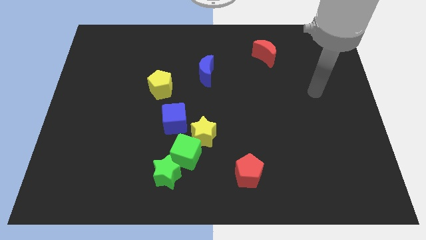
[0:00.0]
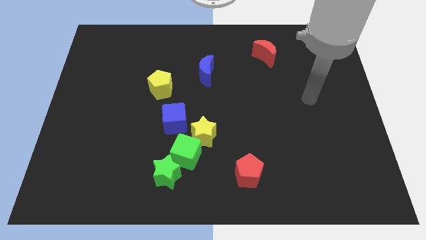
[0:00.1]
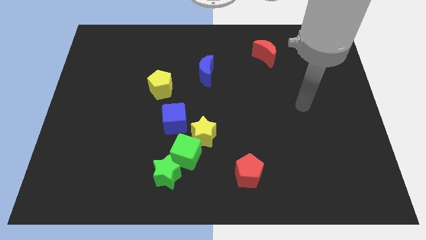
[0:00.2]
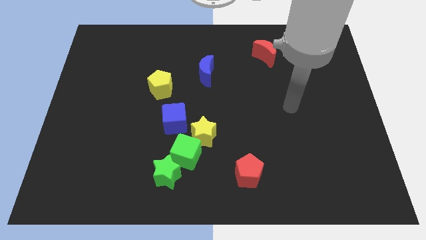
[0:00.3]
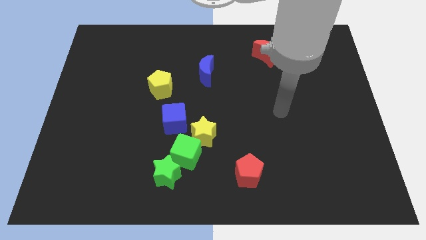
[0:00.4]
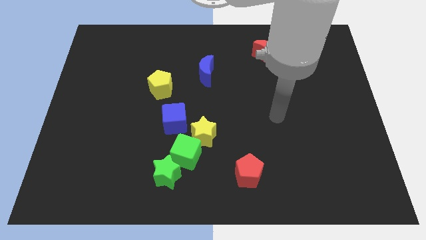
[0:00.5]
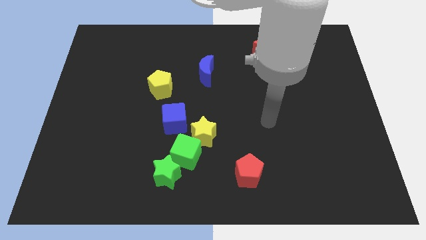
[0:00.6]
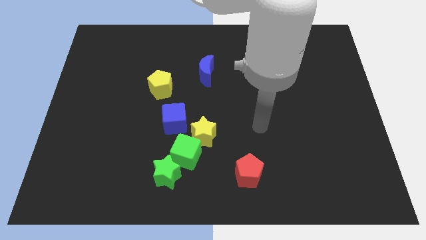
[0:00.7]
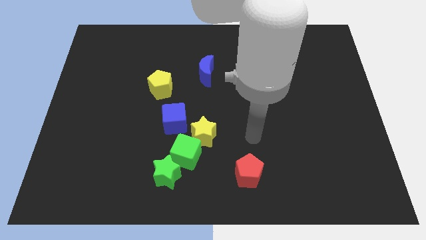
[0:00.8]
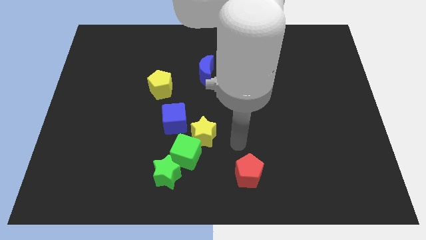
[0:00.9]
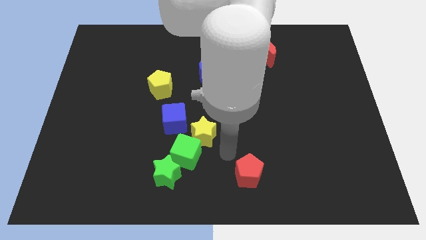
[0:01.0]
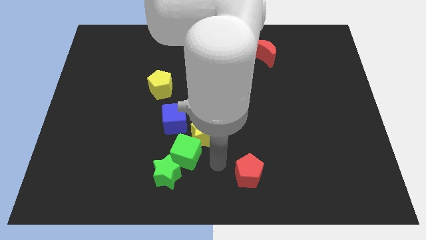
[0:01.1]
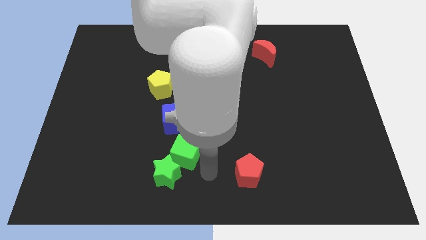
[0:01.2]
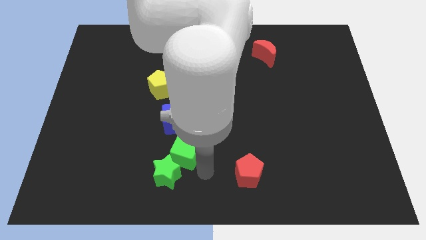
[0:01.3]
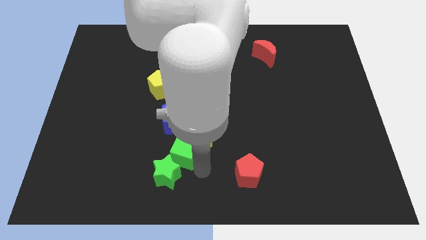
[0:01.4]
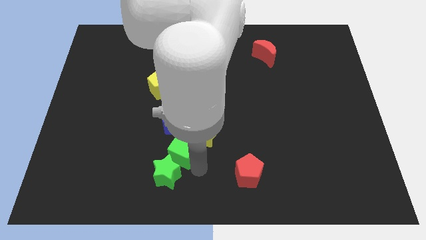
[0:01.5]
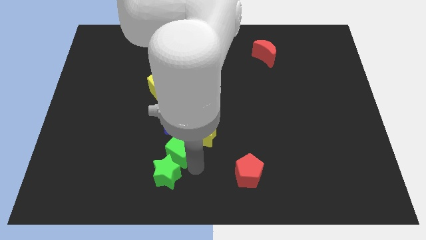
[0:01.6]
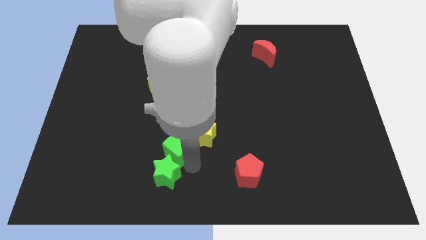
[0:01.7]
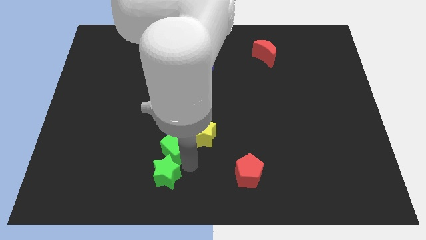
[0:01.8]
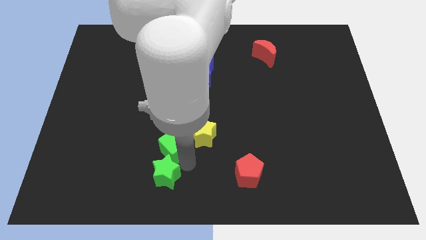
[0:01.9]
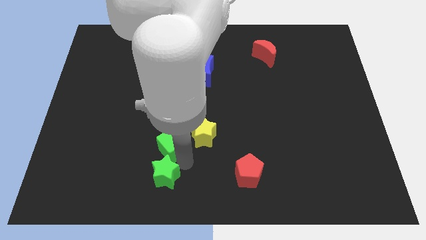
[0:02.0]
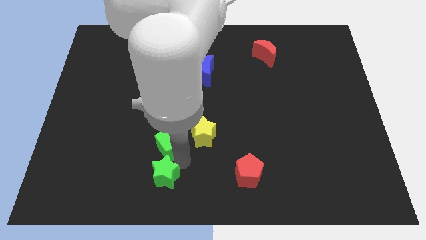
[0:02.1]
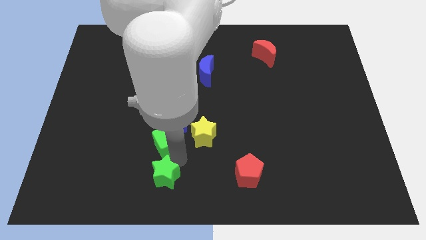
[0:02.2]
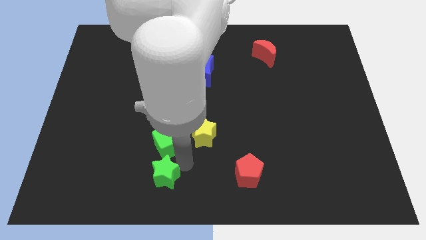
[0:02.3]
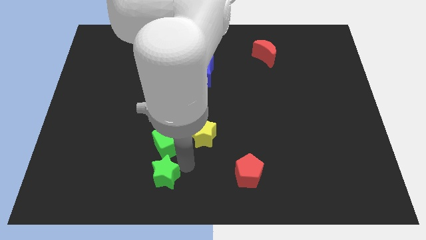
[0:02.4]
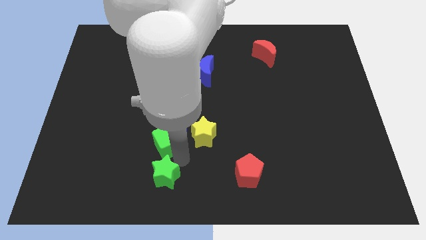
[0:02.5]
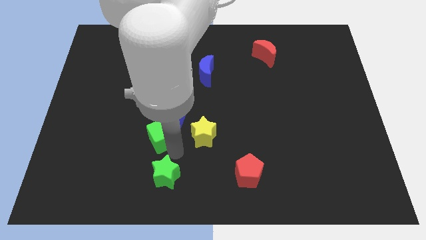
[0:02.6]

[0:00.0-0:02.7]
slightly move the green cube up and then to the left

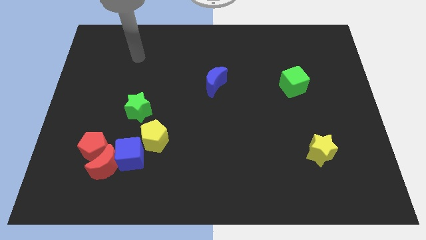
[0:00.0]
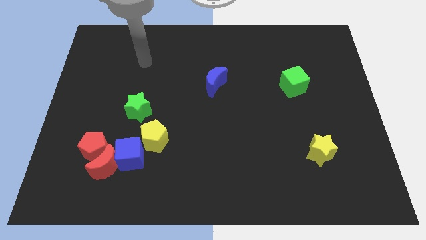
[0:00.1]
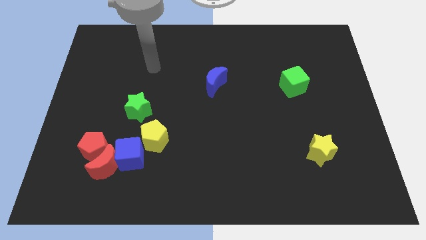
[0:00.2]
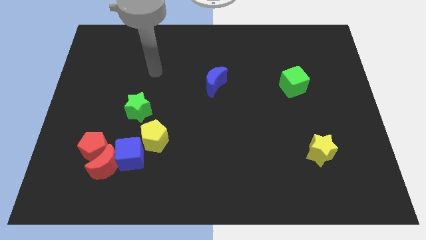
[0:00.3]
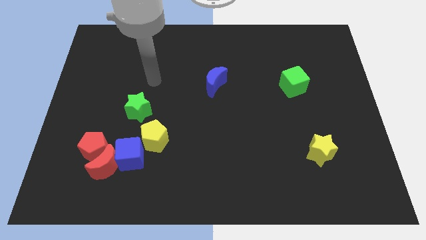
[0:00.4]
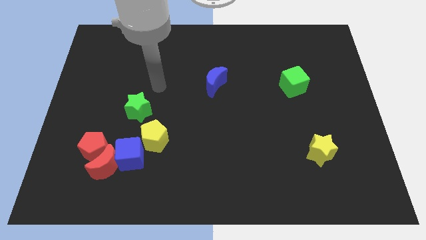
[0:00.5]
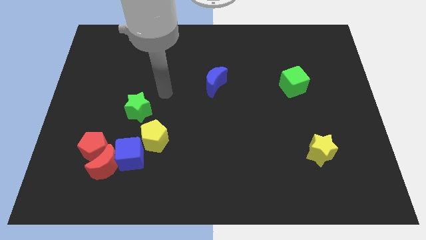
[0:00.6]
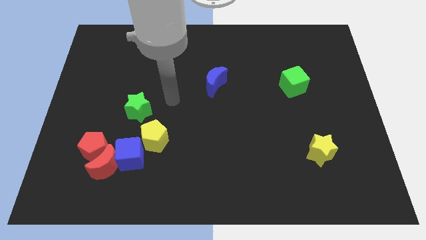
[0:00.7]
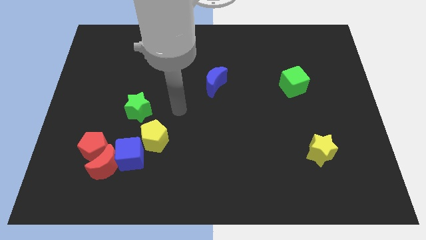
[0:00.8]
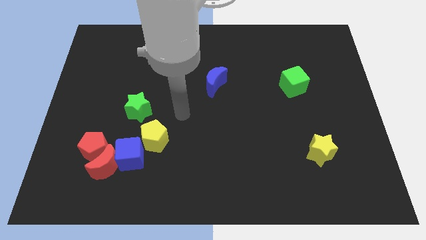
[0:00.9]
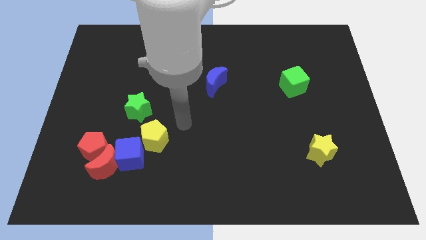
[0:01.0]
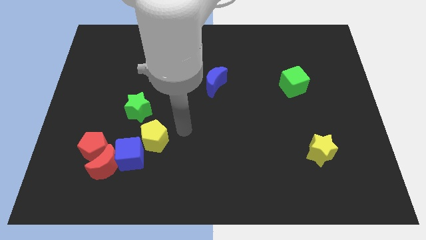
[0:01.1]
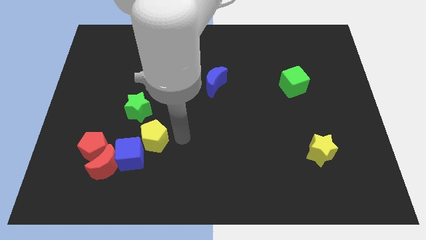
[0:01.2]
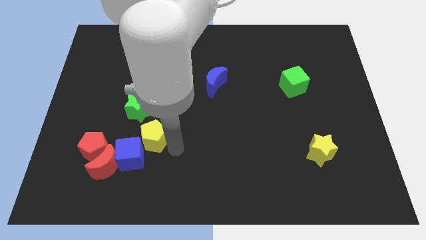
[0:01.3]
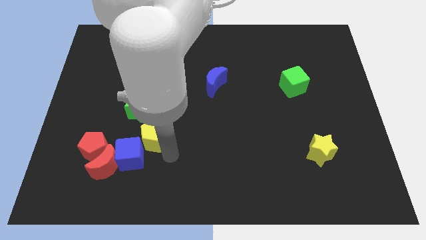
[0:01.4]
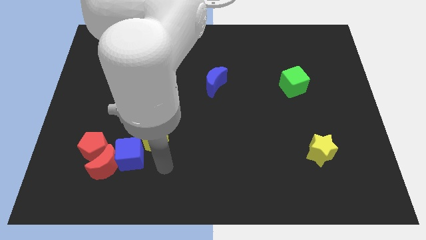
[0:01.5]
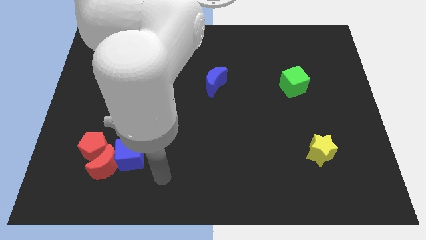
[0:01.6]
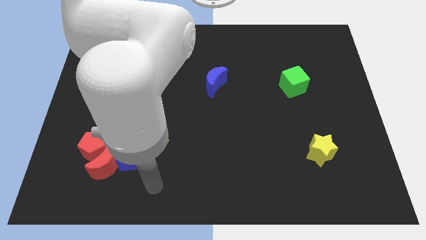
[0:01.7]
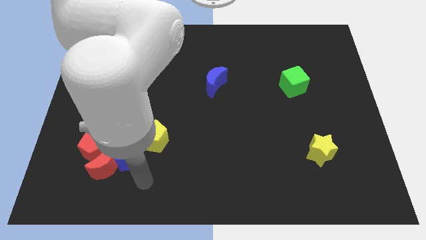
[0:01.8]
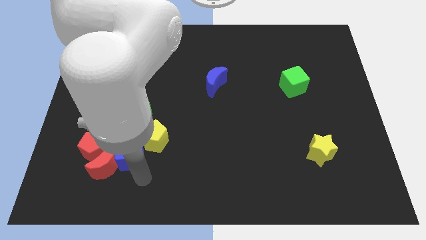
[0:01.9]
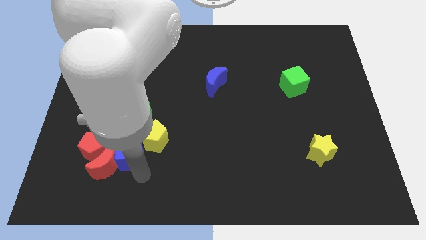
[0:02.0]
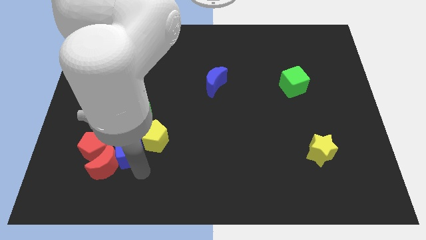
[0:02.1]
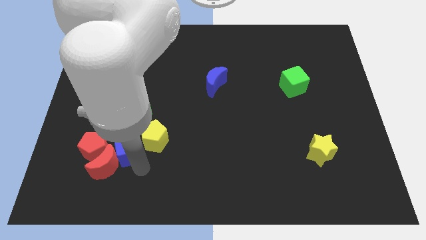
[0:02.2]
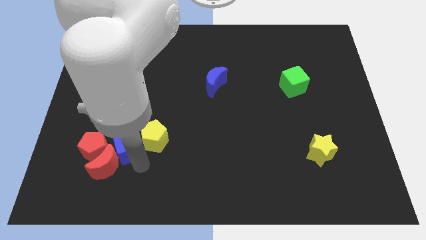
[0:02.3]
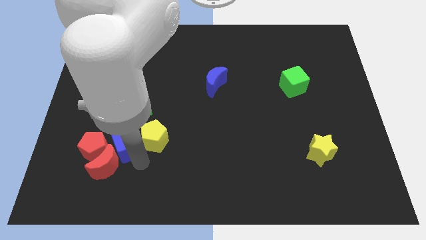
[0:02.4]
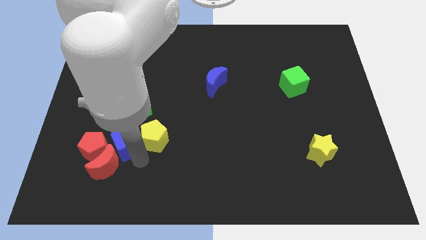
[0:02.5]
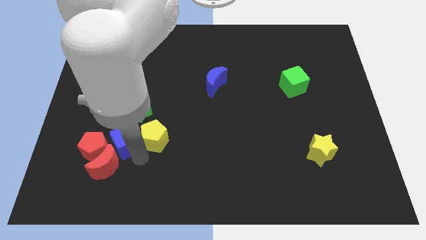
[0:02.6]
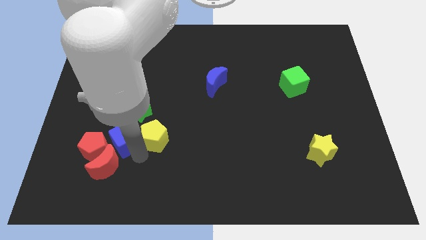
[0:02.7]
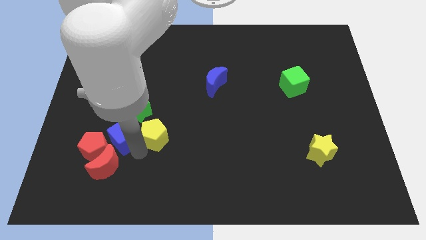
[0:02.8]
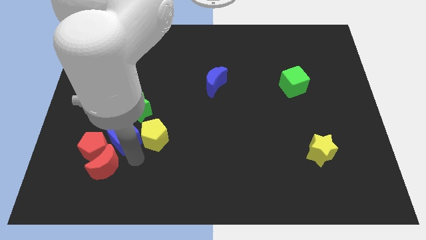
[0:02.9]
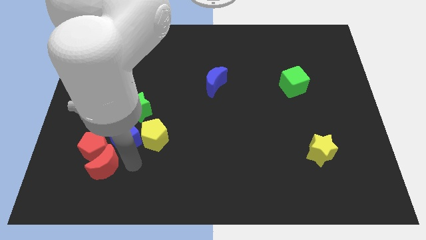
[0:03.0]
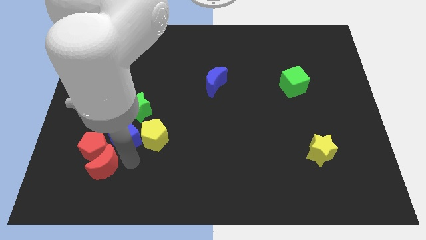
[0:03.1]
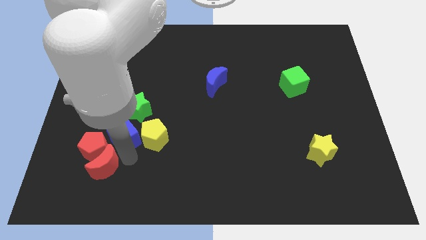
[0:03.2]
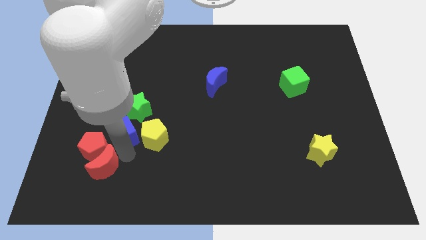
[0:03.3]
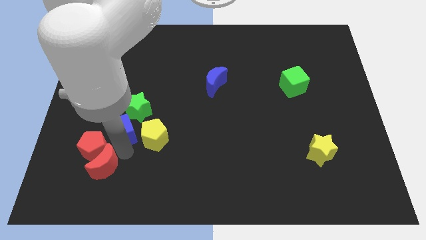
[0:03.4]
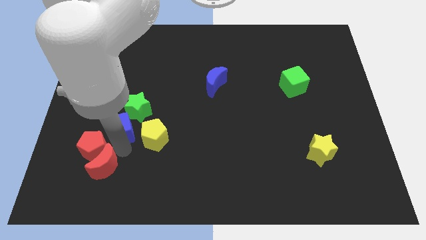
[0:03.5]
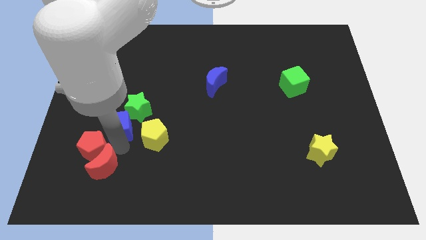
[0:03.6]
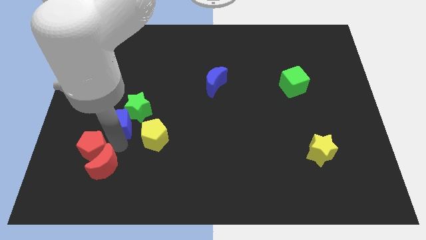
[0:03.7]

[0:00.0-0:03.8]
push the blue cube upwards somewhat

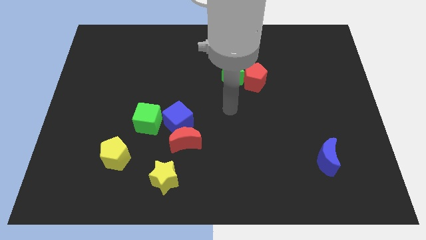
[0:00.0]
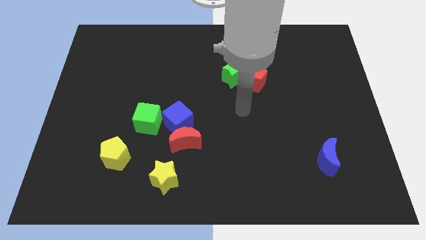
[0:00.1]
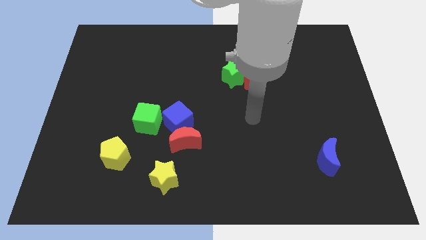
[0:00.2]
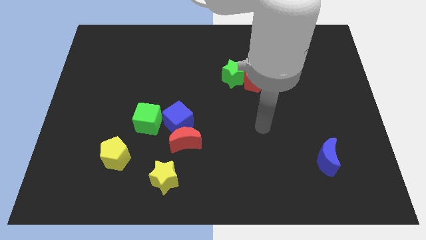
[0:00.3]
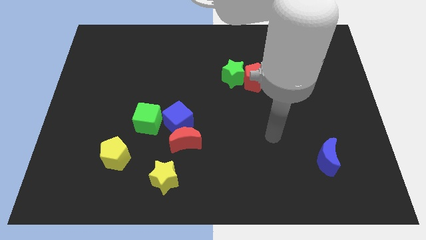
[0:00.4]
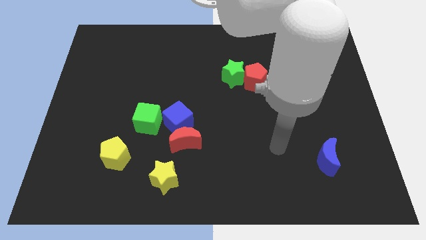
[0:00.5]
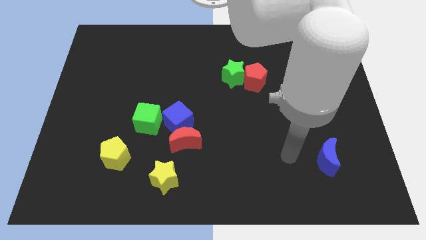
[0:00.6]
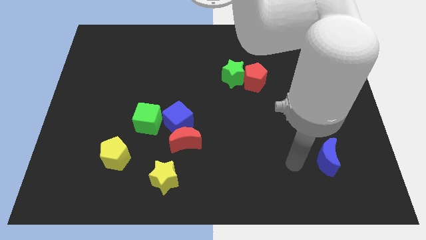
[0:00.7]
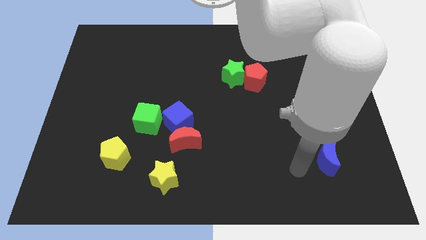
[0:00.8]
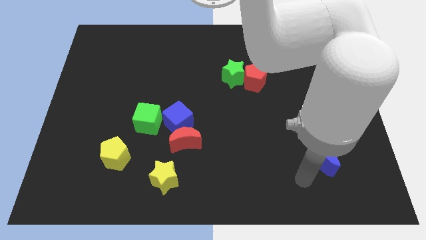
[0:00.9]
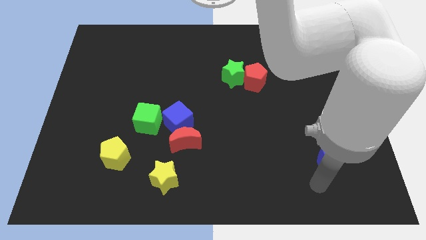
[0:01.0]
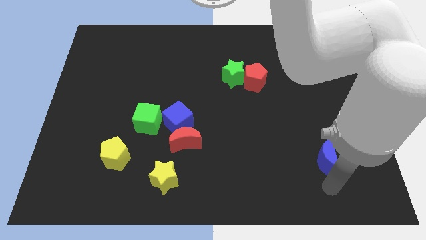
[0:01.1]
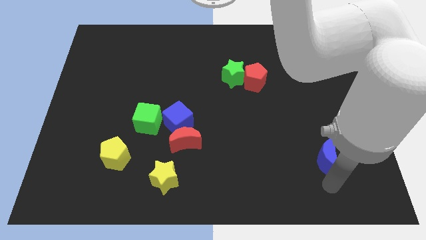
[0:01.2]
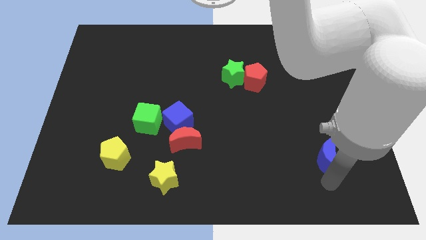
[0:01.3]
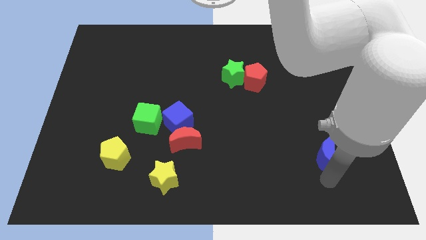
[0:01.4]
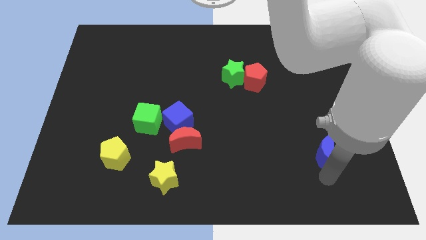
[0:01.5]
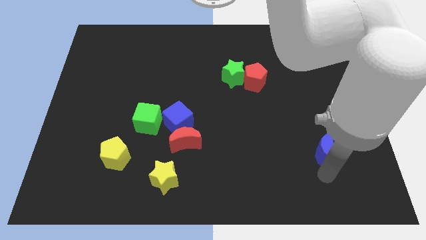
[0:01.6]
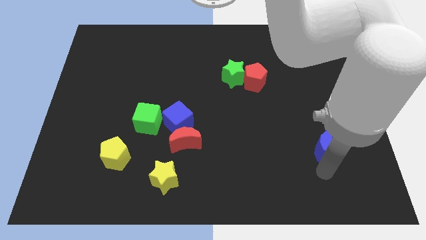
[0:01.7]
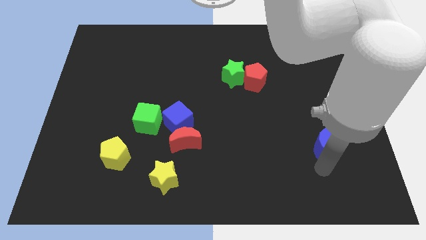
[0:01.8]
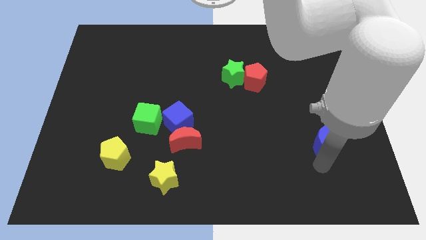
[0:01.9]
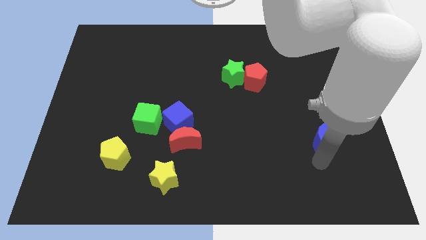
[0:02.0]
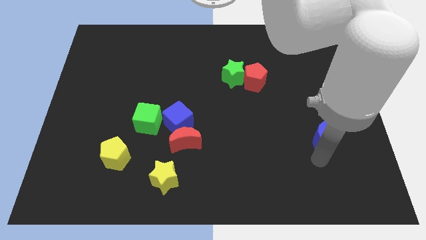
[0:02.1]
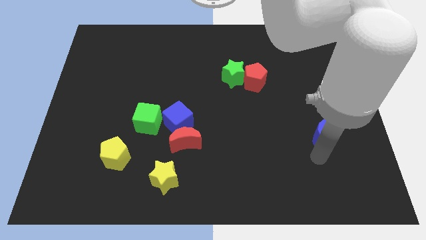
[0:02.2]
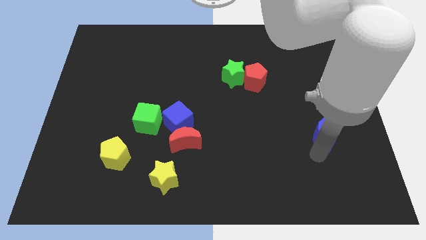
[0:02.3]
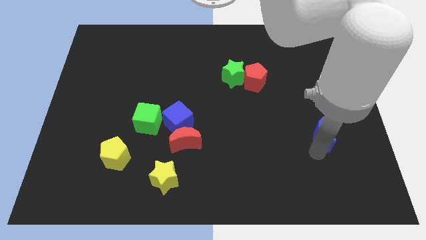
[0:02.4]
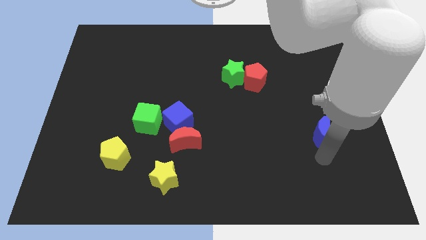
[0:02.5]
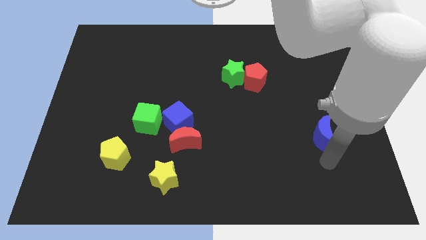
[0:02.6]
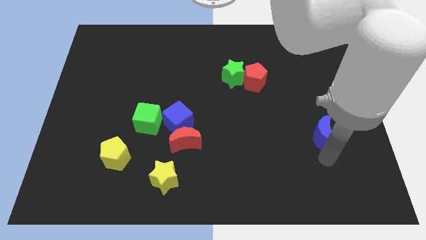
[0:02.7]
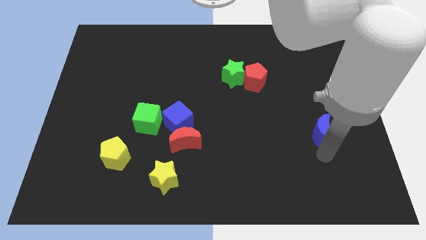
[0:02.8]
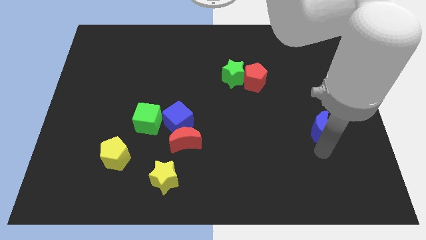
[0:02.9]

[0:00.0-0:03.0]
slide the blue moon somewhat up
